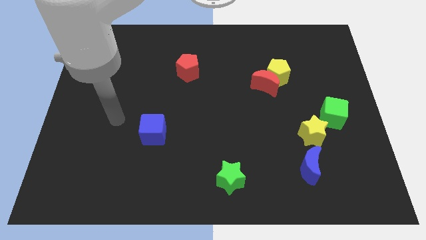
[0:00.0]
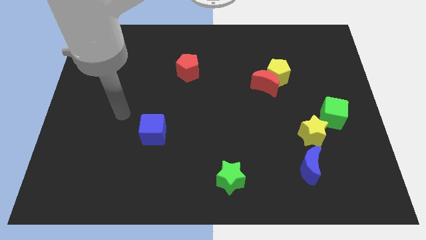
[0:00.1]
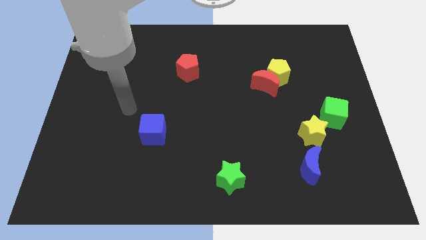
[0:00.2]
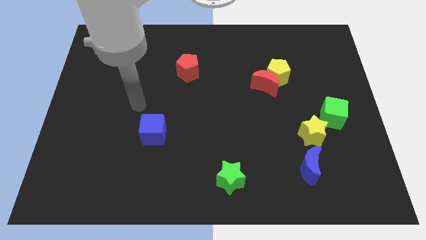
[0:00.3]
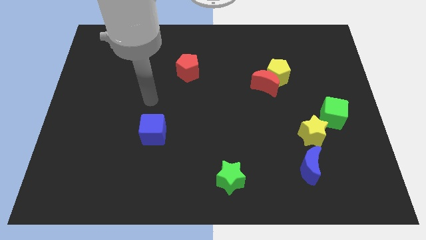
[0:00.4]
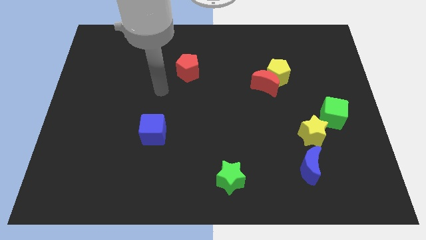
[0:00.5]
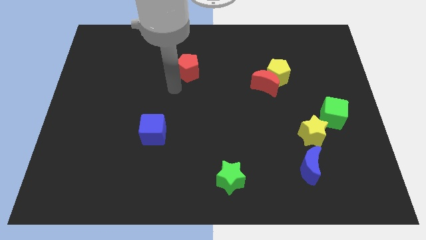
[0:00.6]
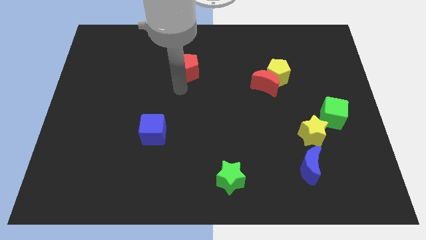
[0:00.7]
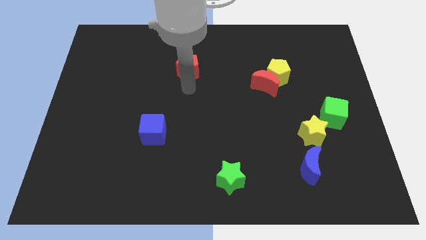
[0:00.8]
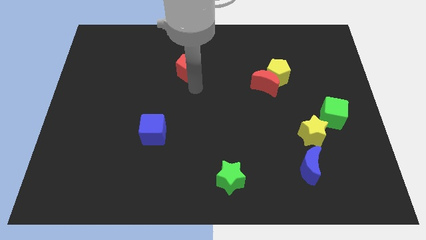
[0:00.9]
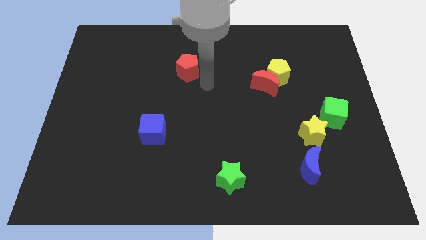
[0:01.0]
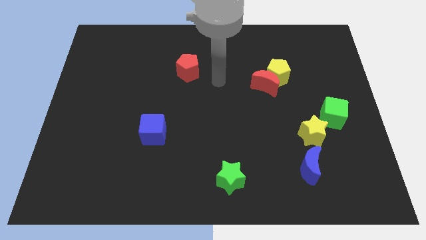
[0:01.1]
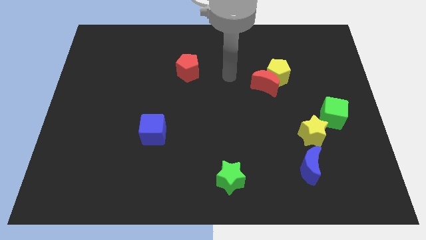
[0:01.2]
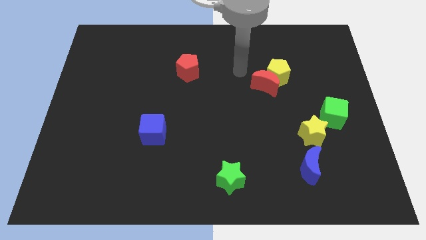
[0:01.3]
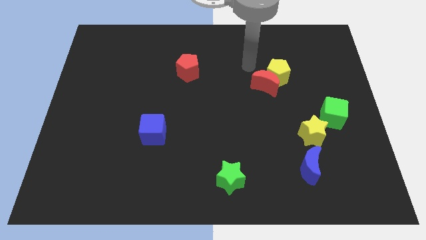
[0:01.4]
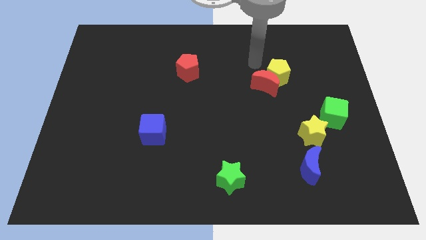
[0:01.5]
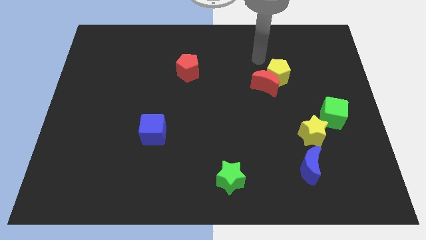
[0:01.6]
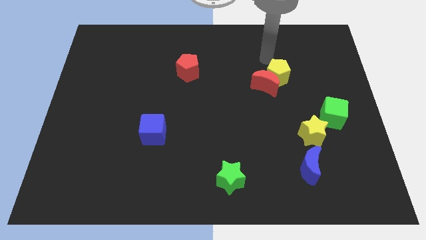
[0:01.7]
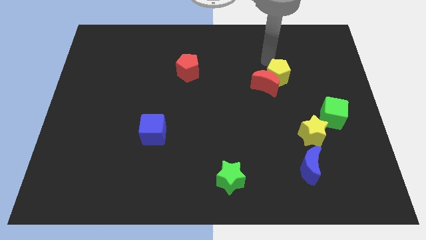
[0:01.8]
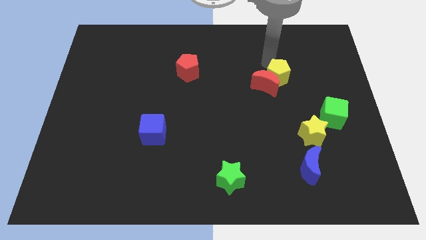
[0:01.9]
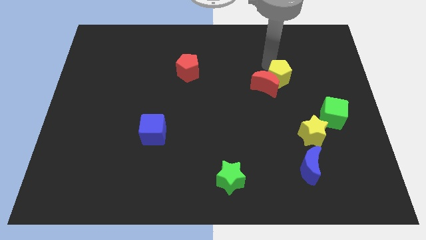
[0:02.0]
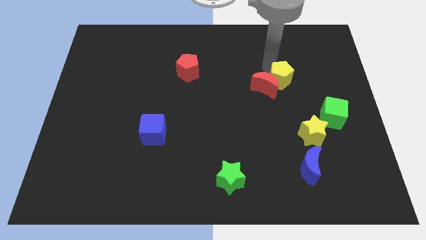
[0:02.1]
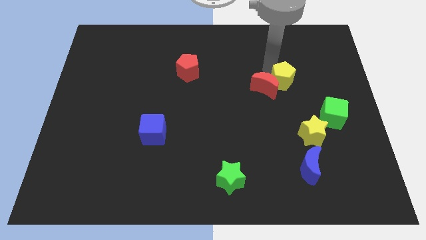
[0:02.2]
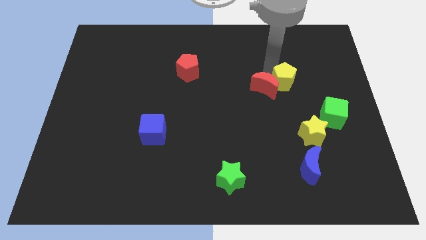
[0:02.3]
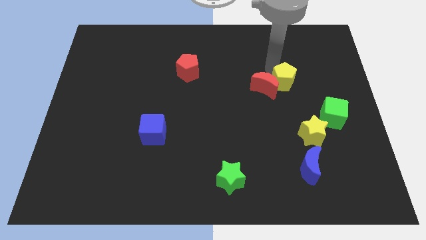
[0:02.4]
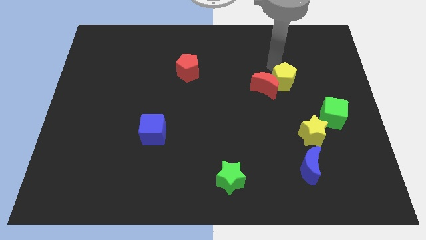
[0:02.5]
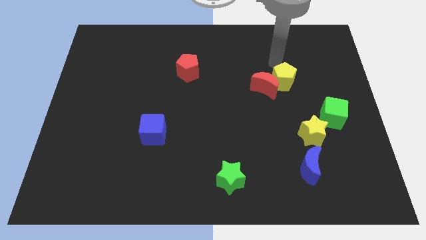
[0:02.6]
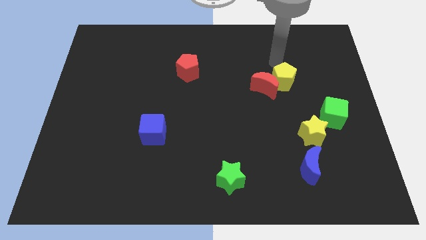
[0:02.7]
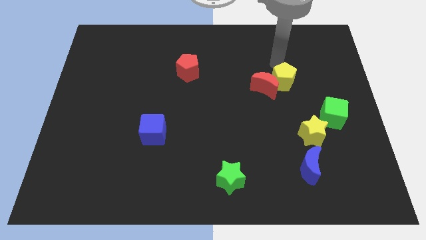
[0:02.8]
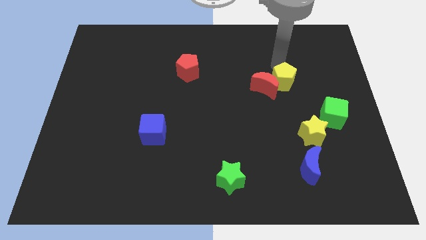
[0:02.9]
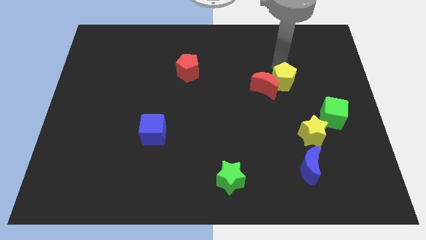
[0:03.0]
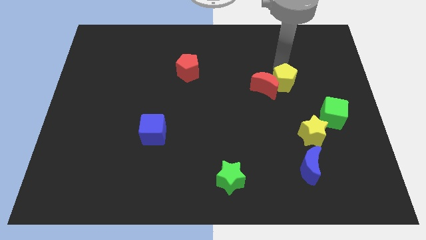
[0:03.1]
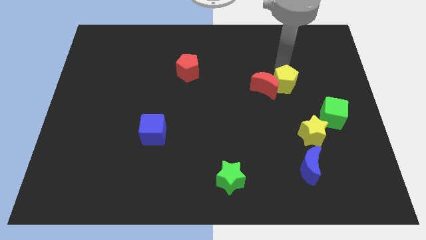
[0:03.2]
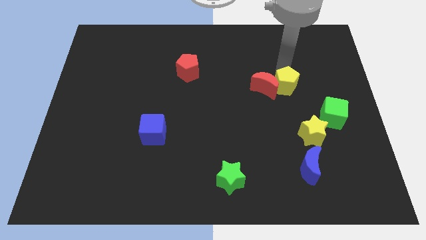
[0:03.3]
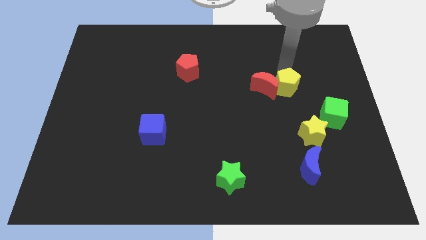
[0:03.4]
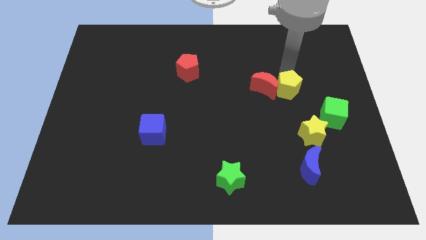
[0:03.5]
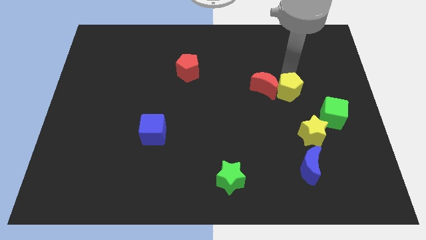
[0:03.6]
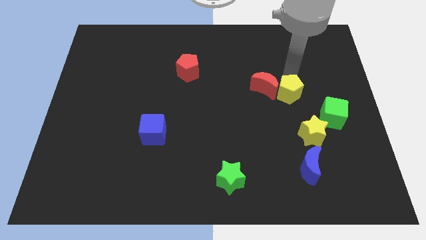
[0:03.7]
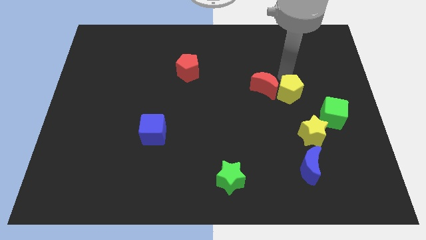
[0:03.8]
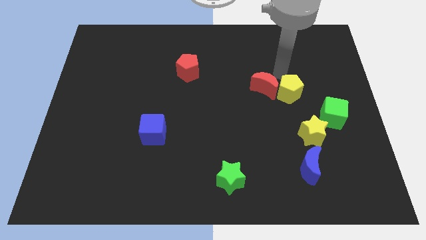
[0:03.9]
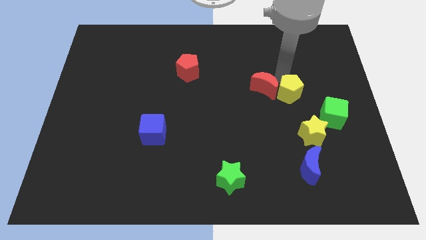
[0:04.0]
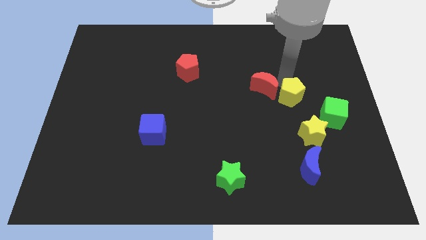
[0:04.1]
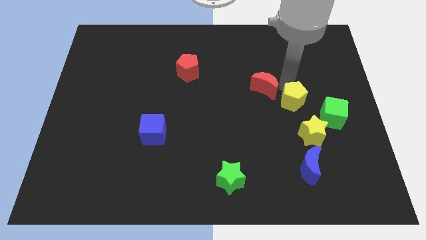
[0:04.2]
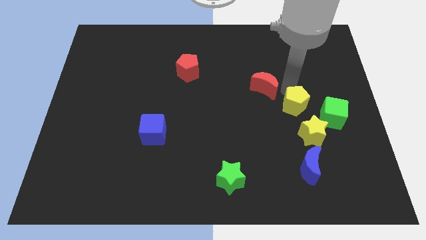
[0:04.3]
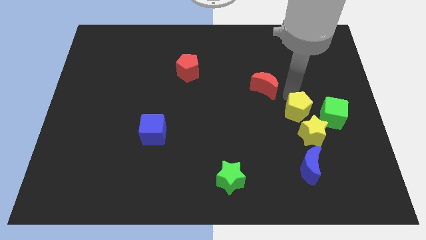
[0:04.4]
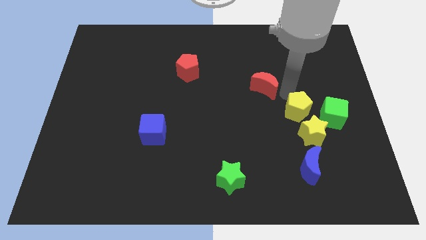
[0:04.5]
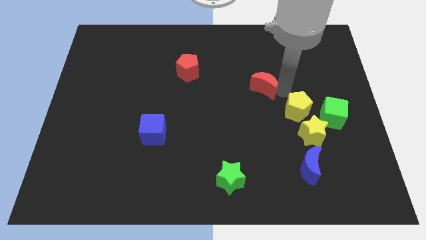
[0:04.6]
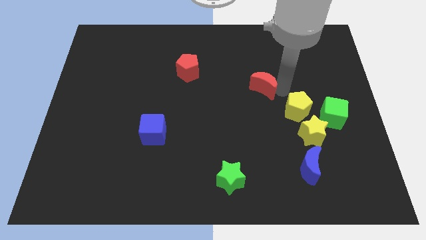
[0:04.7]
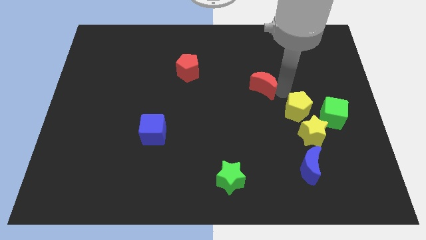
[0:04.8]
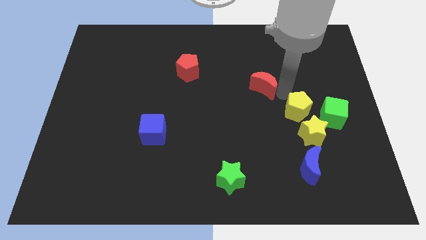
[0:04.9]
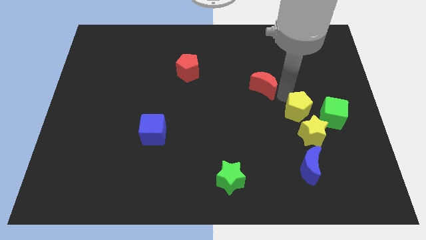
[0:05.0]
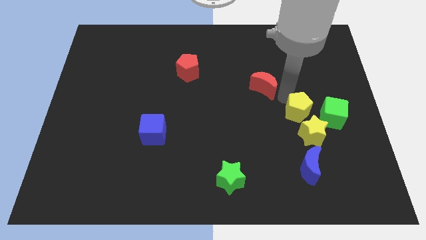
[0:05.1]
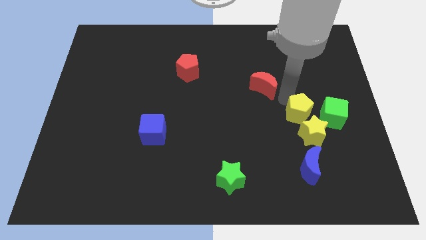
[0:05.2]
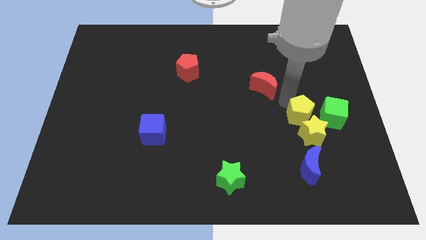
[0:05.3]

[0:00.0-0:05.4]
move the yellow pentagon to the yellow star

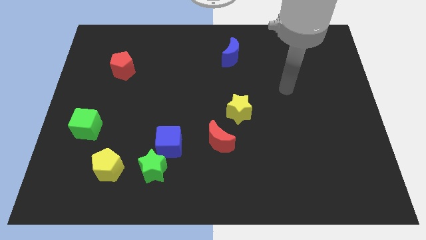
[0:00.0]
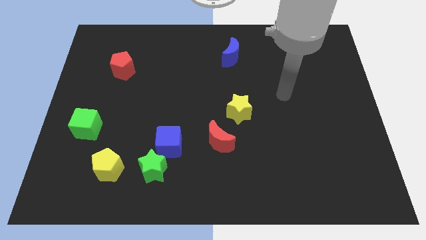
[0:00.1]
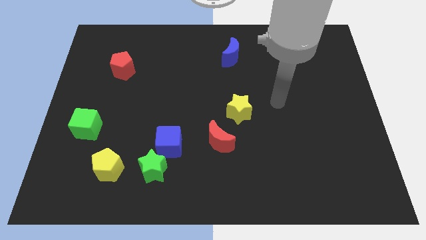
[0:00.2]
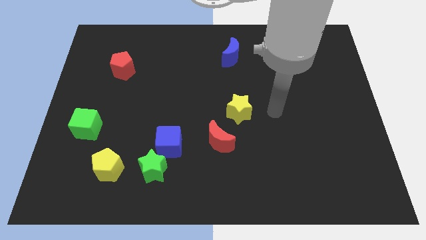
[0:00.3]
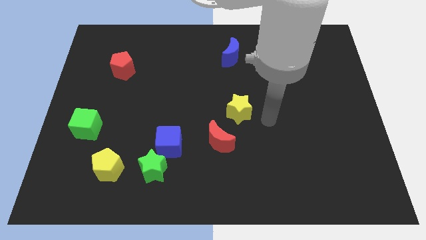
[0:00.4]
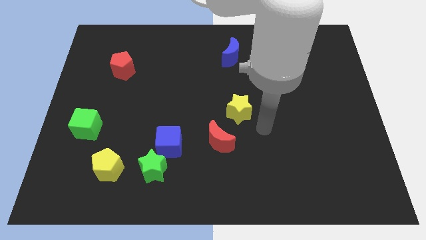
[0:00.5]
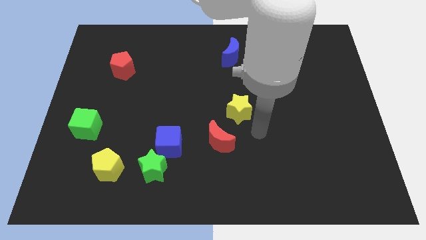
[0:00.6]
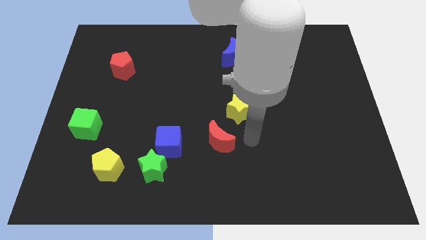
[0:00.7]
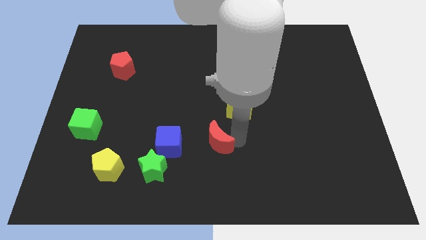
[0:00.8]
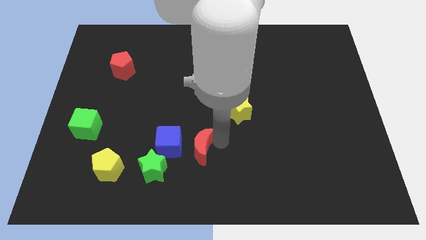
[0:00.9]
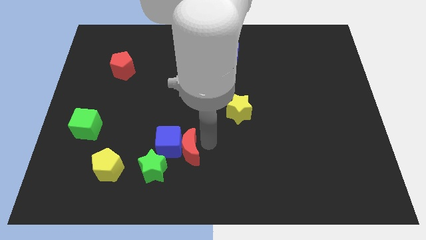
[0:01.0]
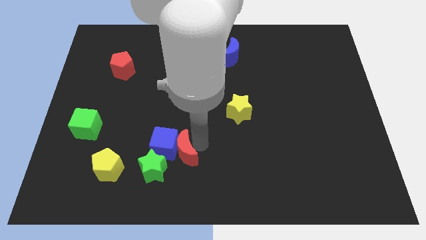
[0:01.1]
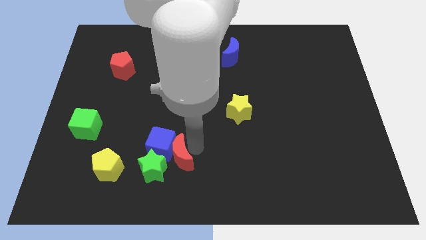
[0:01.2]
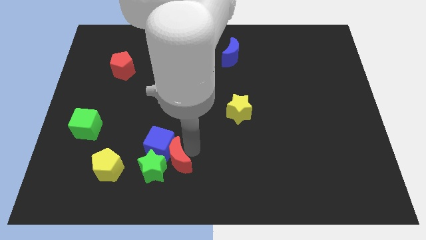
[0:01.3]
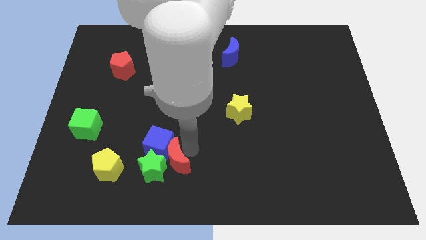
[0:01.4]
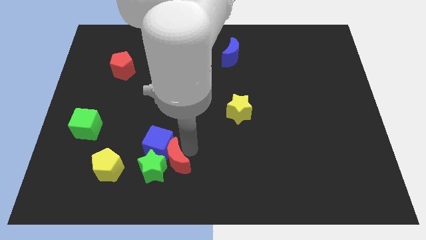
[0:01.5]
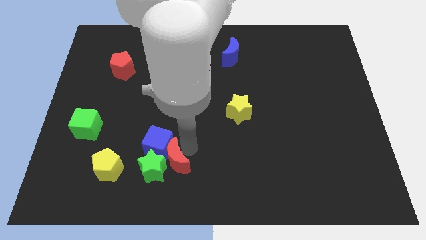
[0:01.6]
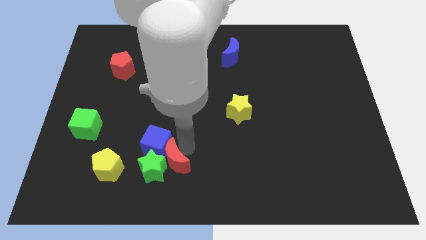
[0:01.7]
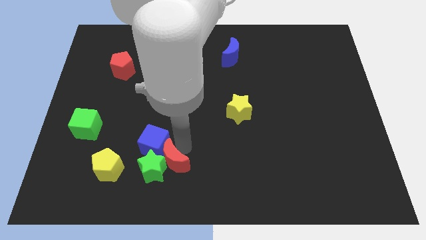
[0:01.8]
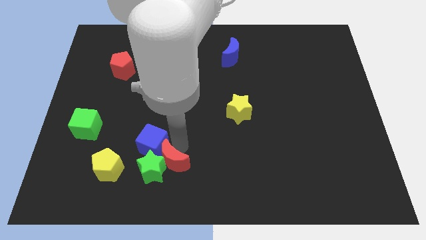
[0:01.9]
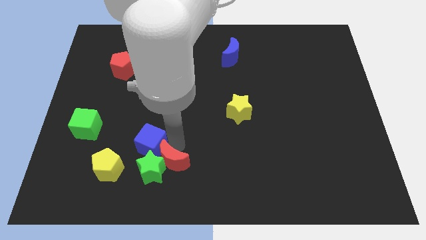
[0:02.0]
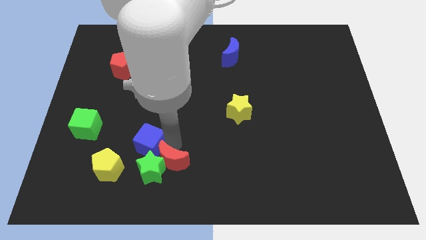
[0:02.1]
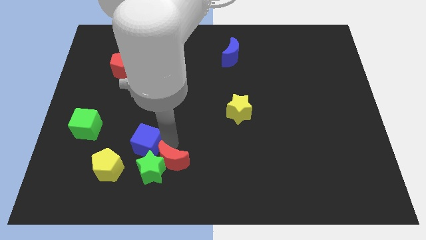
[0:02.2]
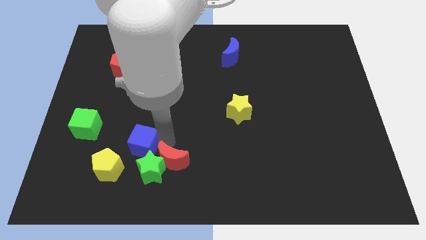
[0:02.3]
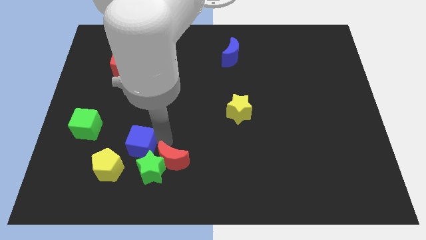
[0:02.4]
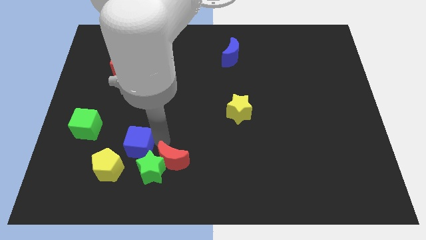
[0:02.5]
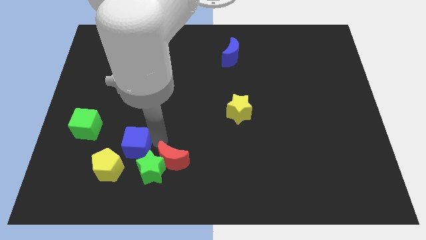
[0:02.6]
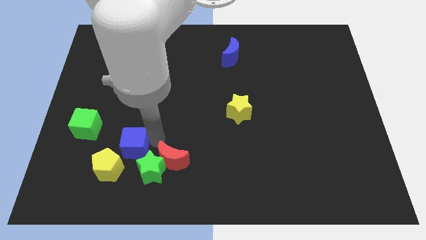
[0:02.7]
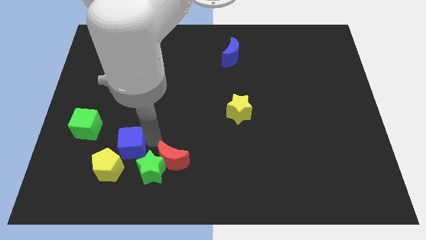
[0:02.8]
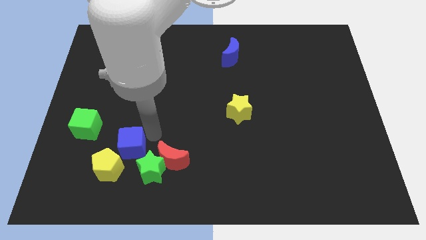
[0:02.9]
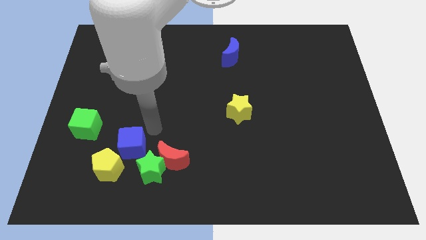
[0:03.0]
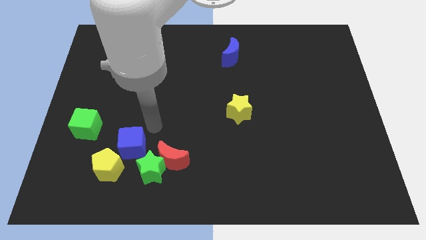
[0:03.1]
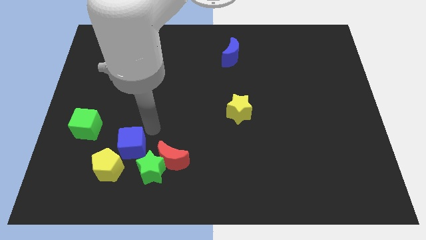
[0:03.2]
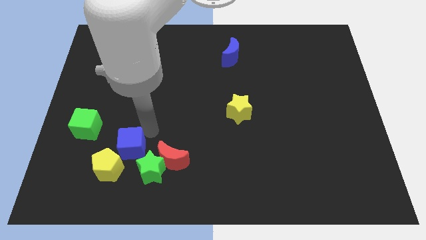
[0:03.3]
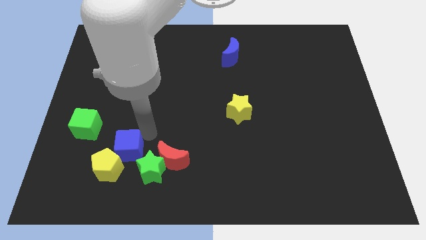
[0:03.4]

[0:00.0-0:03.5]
slide the blue cube close to the yellow pentagon
